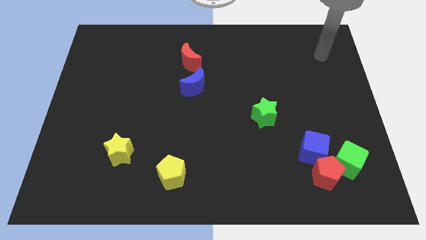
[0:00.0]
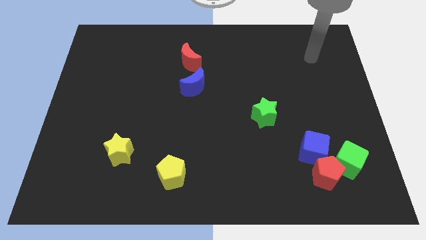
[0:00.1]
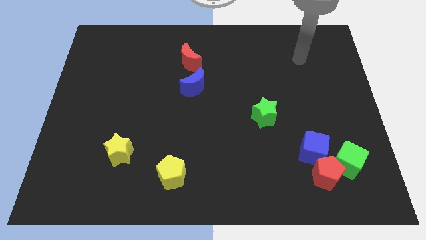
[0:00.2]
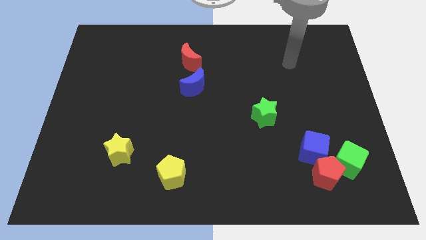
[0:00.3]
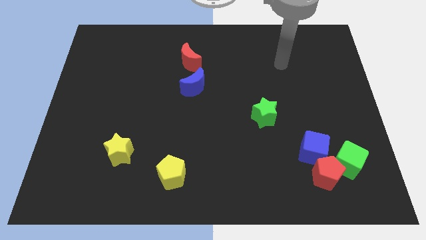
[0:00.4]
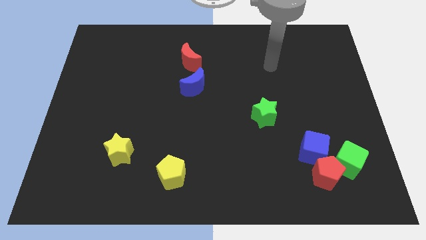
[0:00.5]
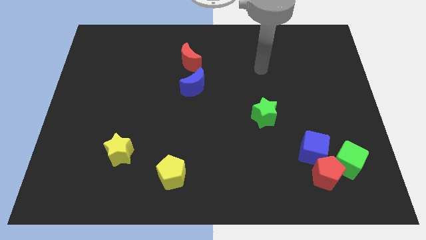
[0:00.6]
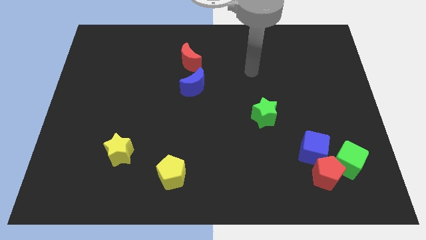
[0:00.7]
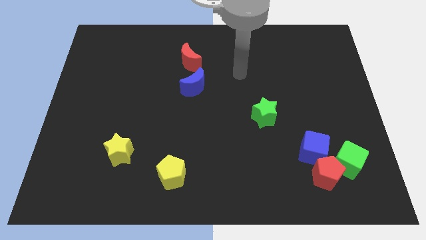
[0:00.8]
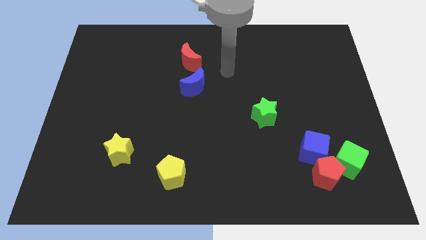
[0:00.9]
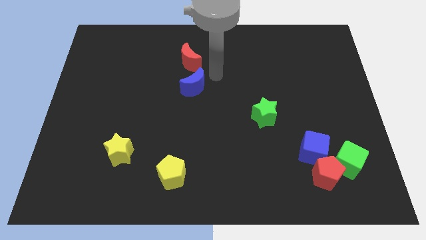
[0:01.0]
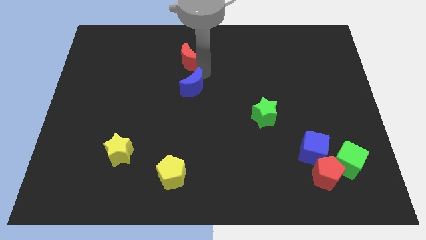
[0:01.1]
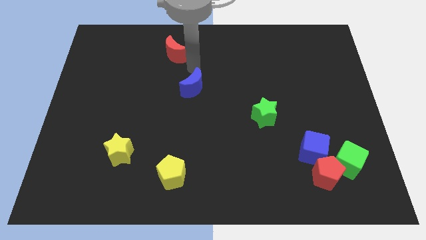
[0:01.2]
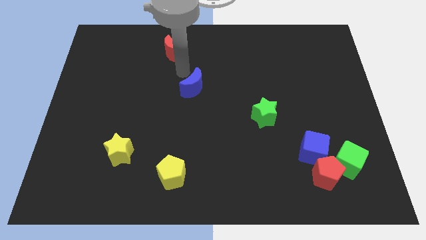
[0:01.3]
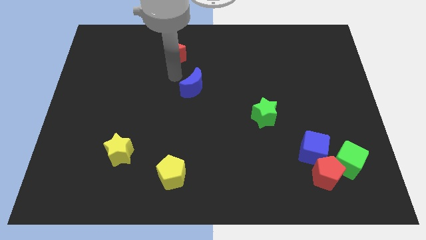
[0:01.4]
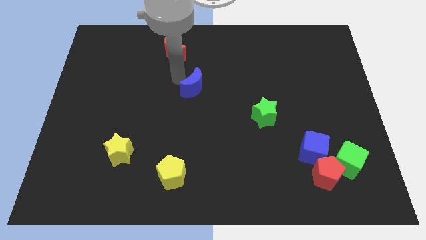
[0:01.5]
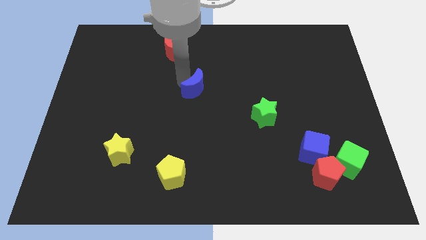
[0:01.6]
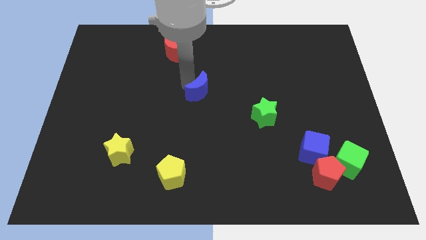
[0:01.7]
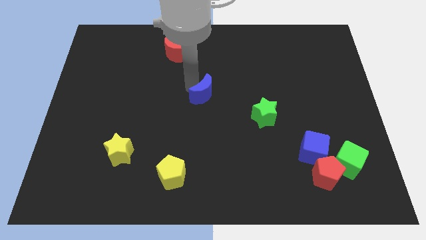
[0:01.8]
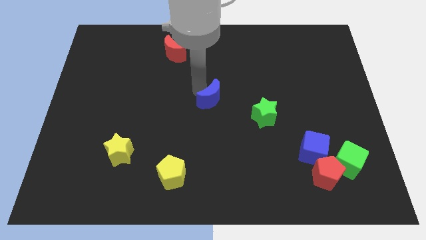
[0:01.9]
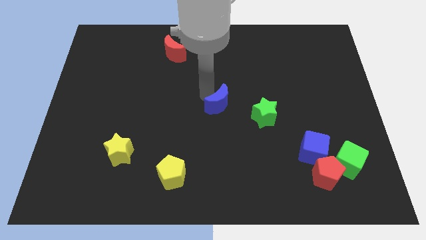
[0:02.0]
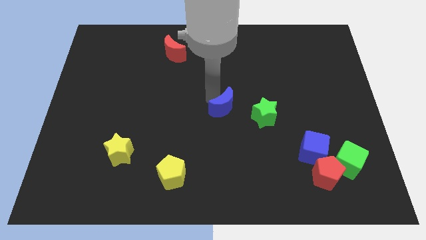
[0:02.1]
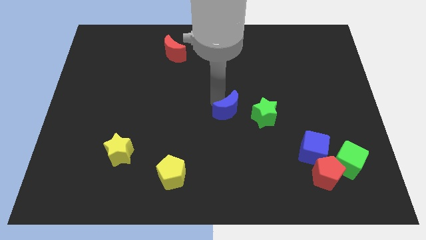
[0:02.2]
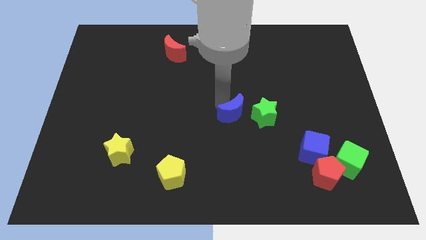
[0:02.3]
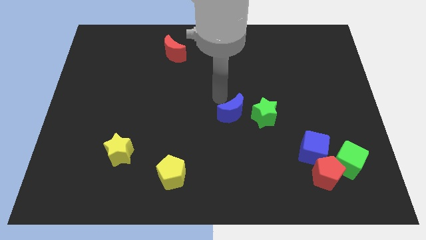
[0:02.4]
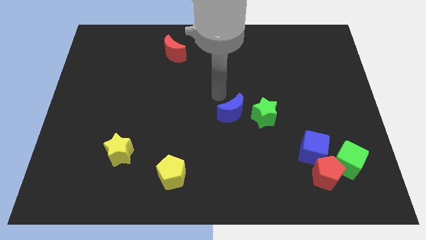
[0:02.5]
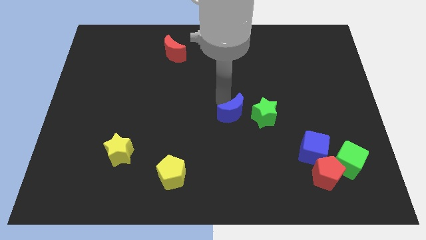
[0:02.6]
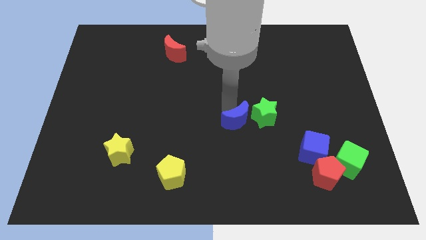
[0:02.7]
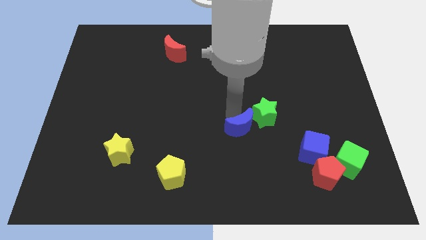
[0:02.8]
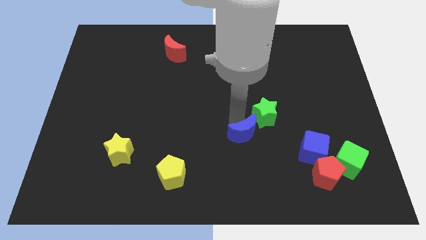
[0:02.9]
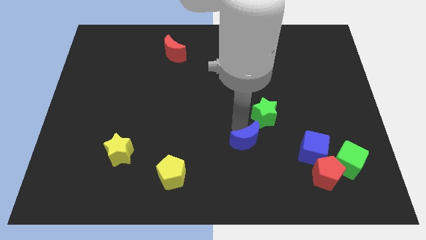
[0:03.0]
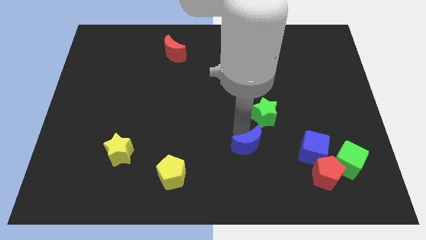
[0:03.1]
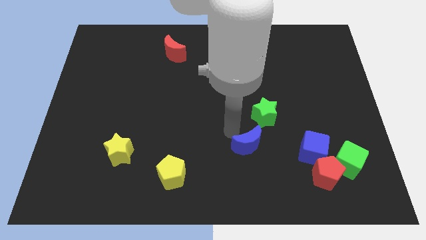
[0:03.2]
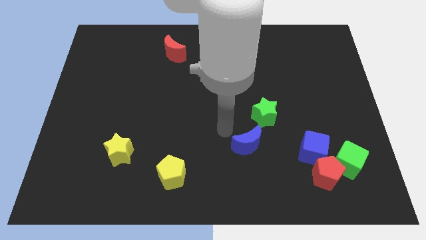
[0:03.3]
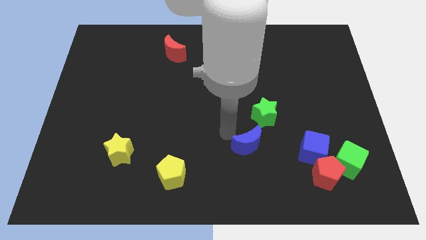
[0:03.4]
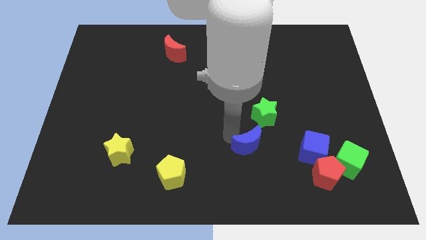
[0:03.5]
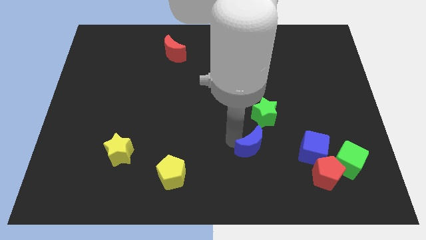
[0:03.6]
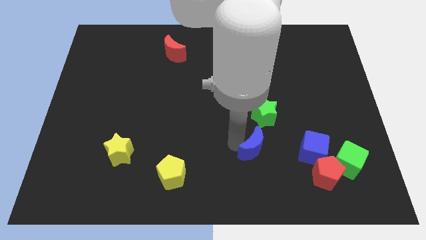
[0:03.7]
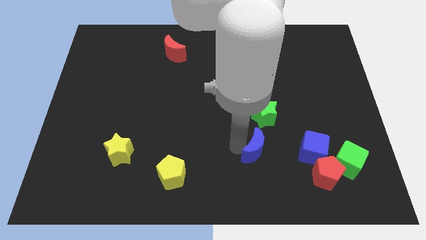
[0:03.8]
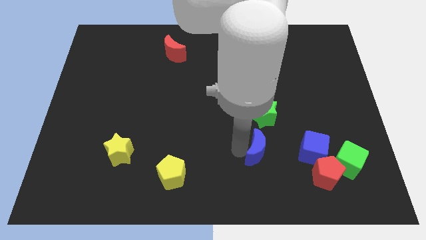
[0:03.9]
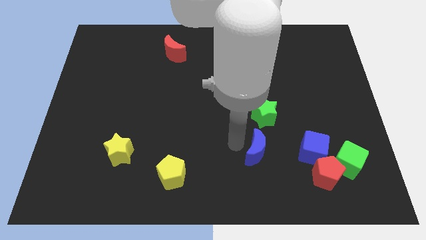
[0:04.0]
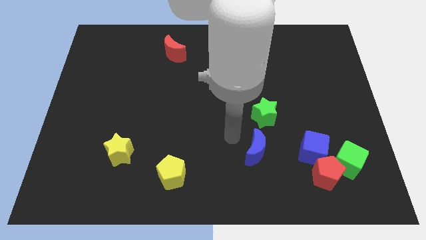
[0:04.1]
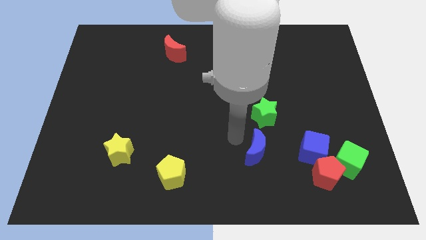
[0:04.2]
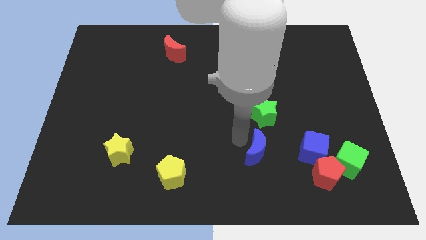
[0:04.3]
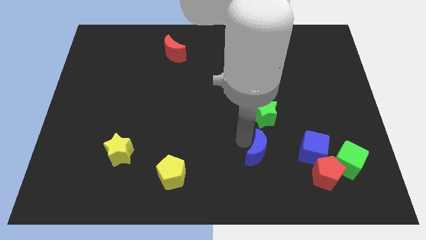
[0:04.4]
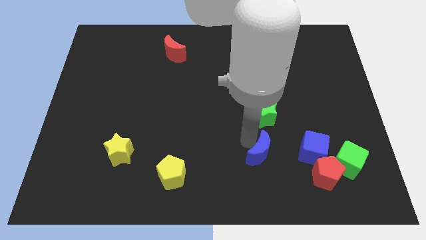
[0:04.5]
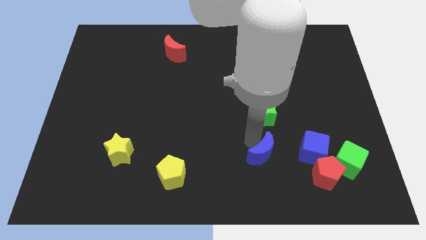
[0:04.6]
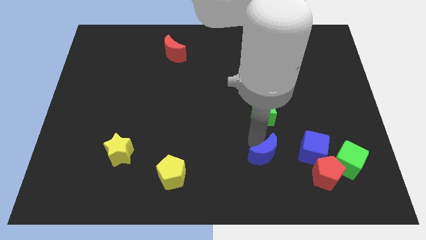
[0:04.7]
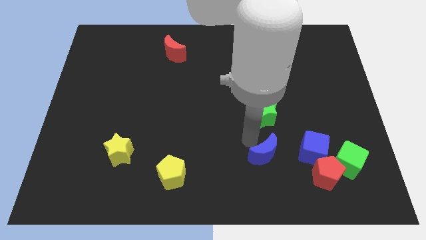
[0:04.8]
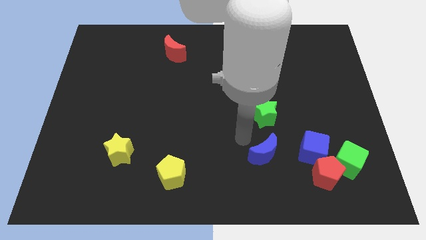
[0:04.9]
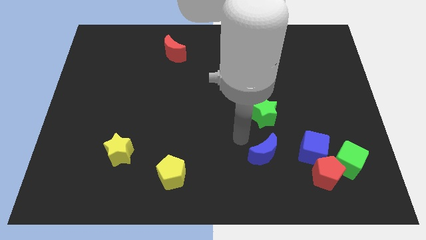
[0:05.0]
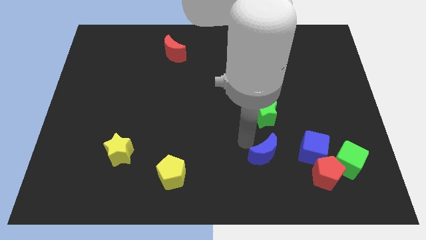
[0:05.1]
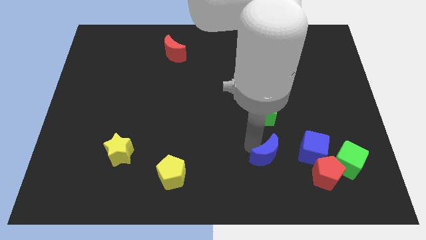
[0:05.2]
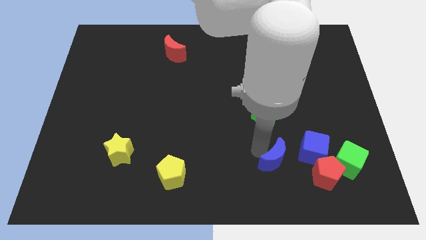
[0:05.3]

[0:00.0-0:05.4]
push the blue moon to the bottom left side of the blue cube

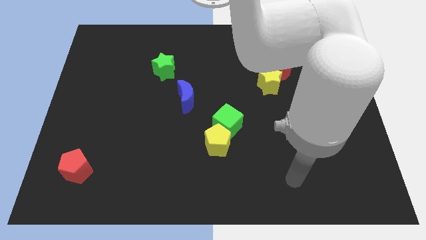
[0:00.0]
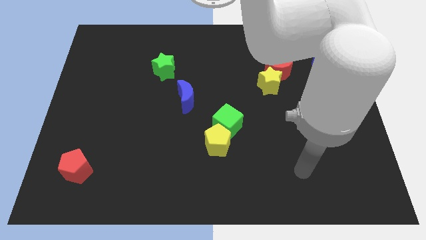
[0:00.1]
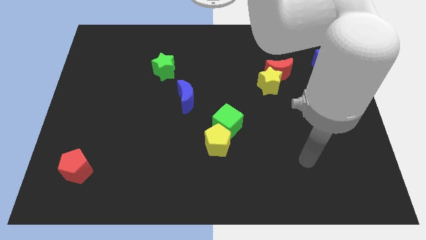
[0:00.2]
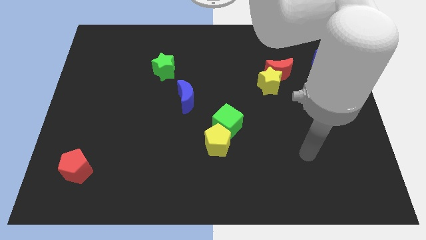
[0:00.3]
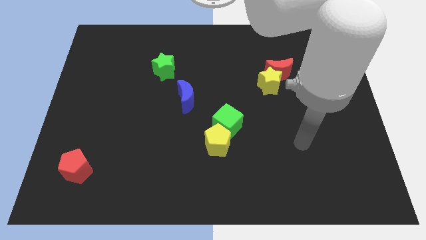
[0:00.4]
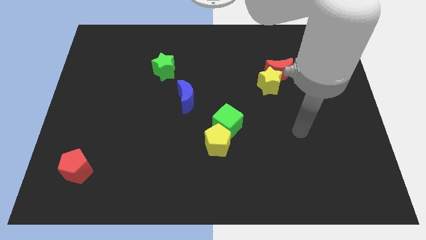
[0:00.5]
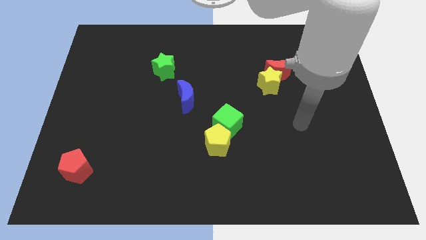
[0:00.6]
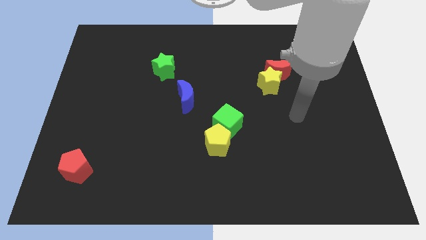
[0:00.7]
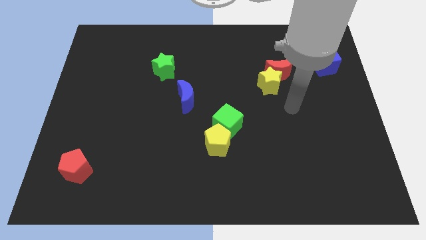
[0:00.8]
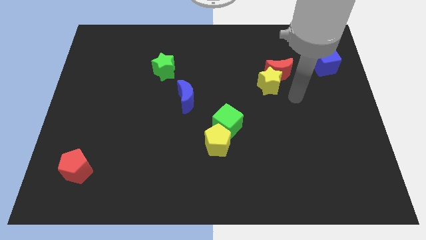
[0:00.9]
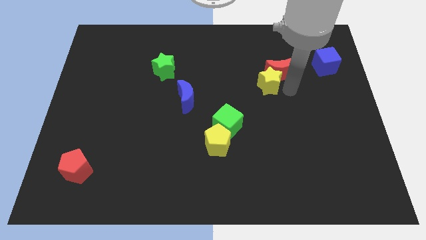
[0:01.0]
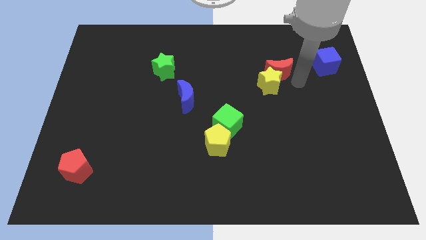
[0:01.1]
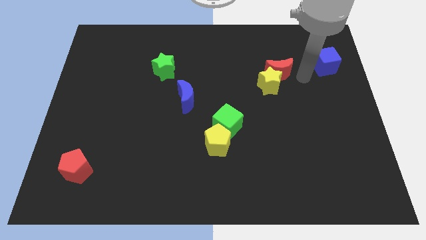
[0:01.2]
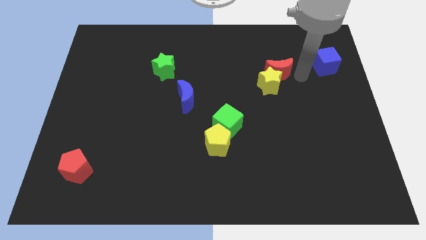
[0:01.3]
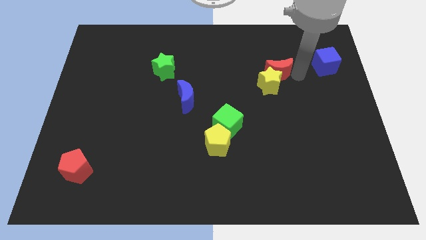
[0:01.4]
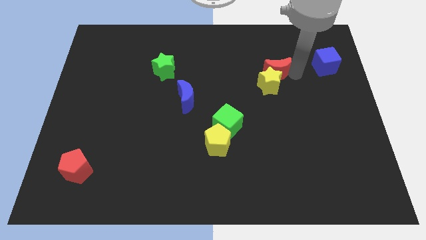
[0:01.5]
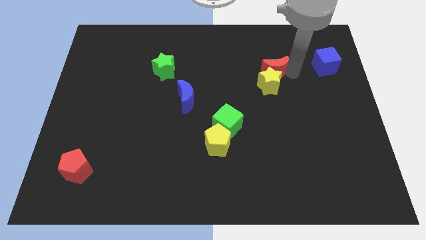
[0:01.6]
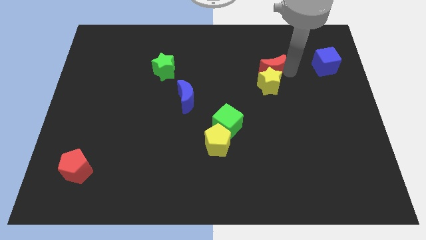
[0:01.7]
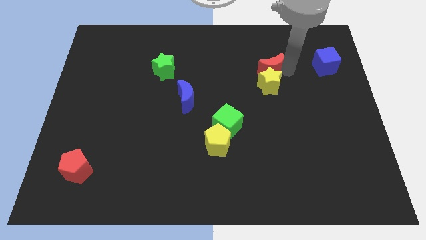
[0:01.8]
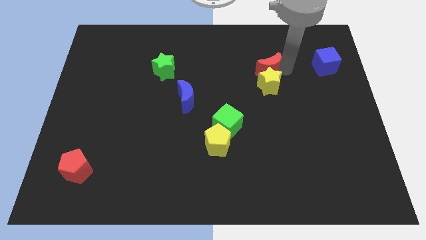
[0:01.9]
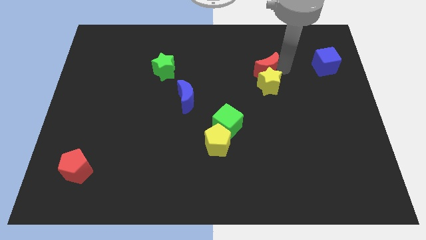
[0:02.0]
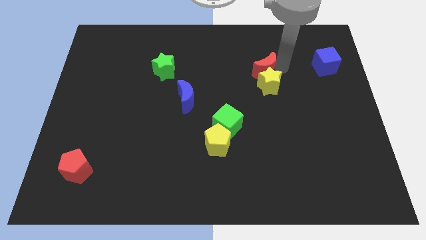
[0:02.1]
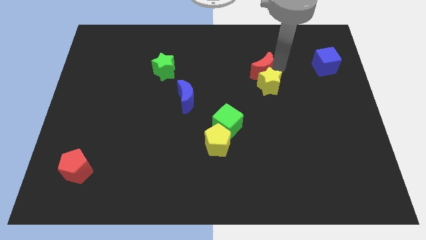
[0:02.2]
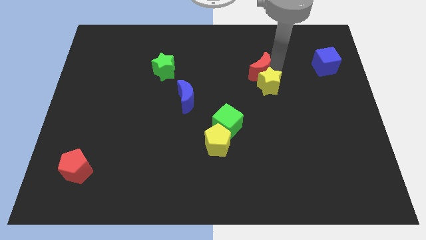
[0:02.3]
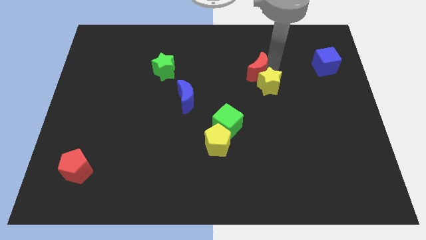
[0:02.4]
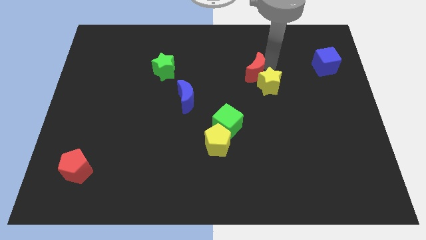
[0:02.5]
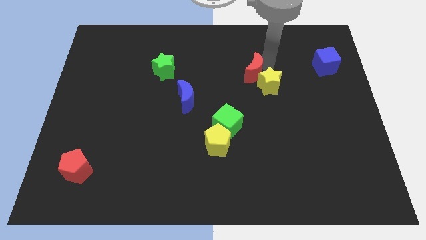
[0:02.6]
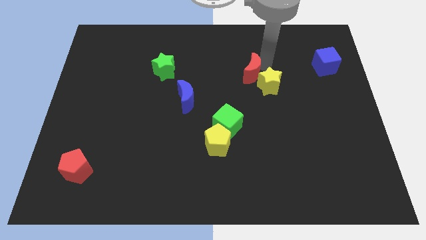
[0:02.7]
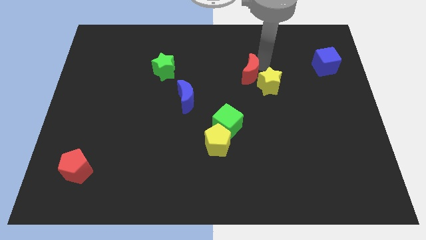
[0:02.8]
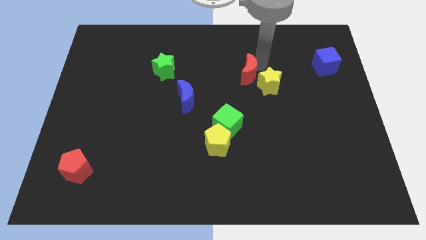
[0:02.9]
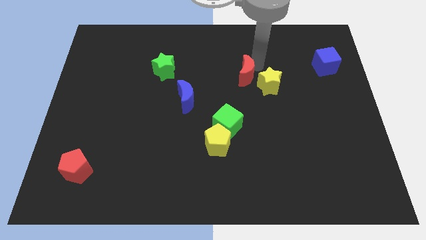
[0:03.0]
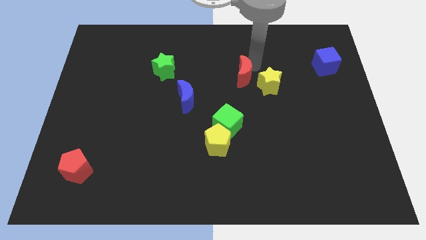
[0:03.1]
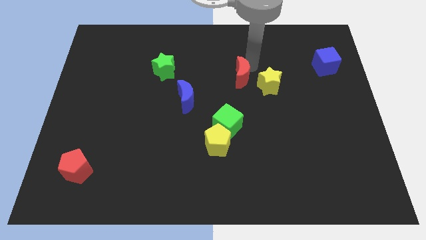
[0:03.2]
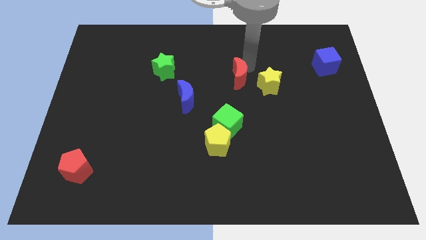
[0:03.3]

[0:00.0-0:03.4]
slide the red moon to the top of the green cube
